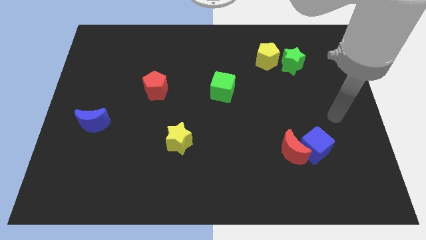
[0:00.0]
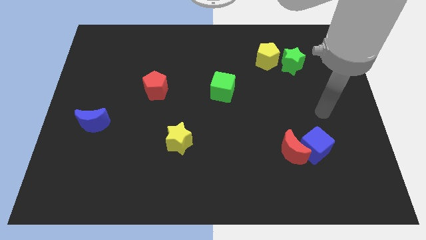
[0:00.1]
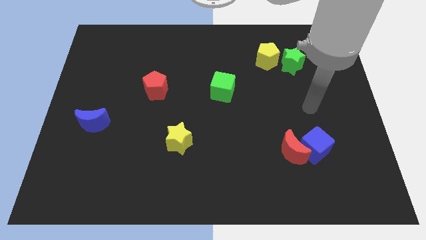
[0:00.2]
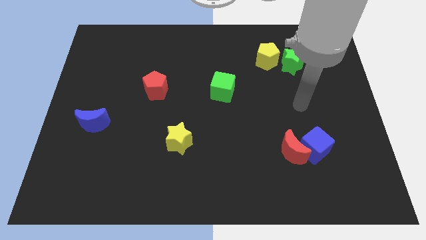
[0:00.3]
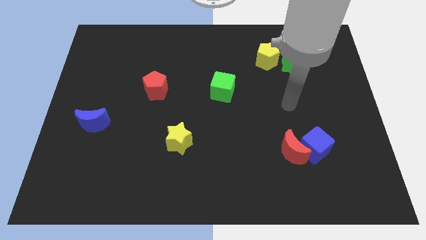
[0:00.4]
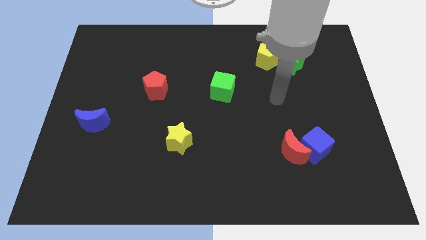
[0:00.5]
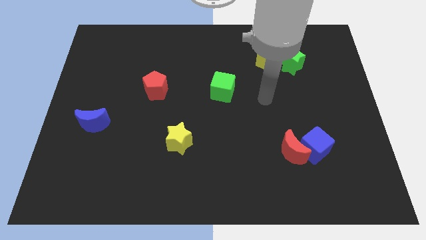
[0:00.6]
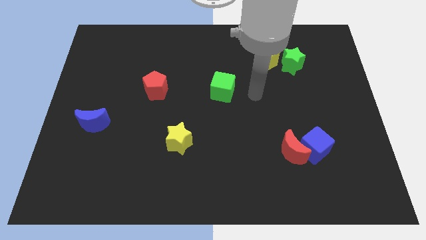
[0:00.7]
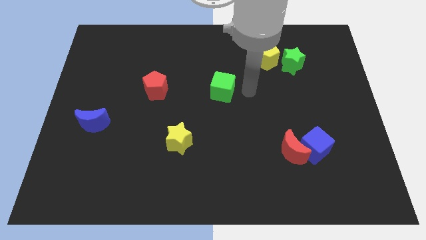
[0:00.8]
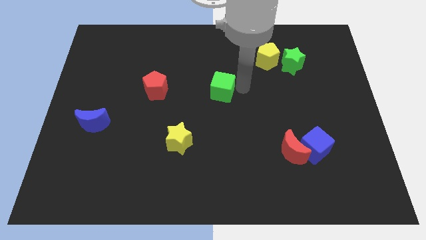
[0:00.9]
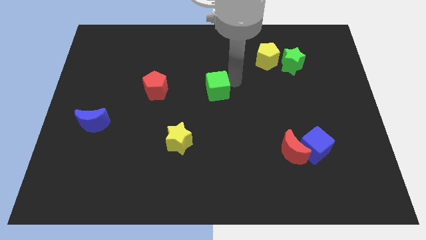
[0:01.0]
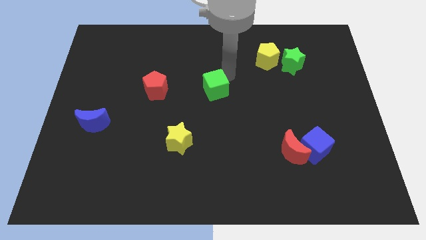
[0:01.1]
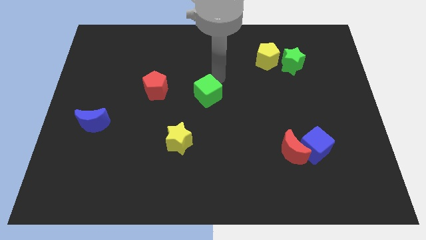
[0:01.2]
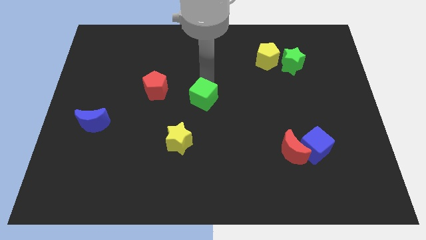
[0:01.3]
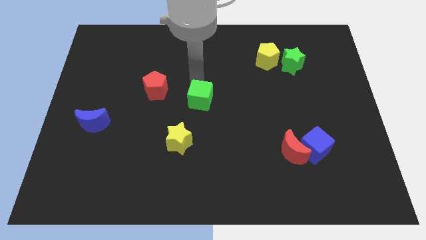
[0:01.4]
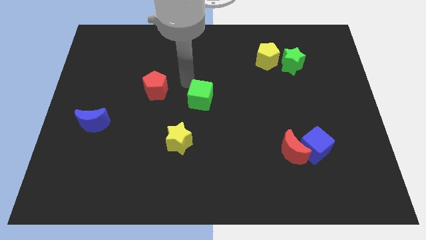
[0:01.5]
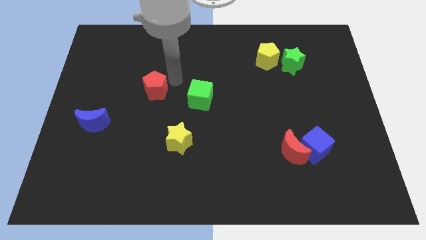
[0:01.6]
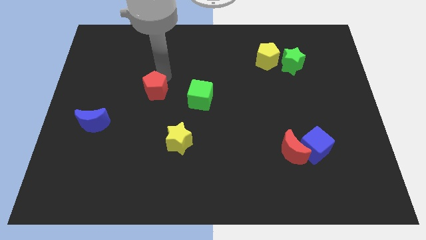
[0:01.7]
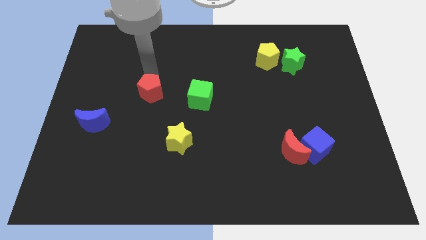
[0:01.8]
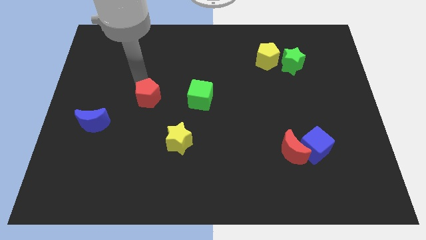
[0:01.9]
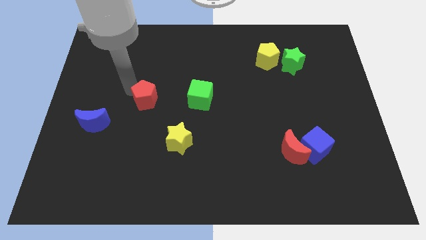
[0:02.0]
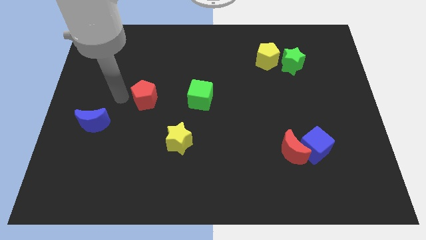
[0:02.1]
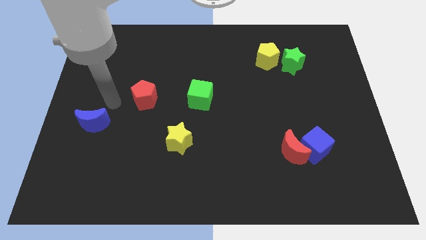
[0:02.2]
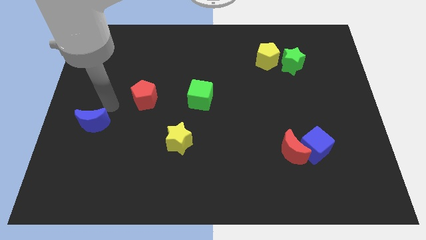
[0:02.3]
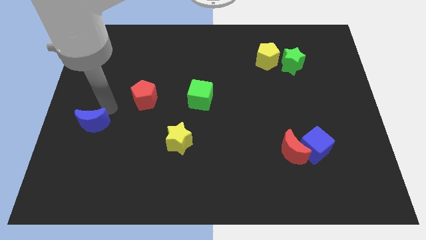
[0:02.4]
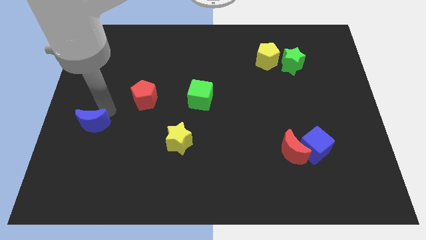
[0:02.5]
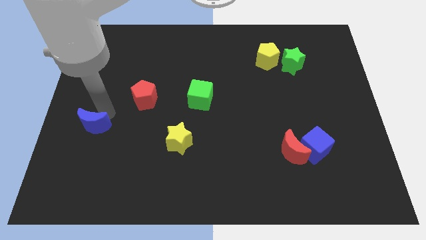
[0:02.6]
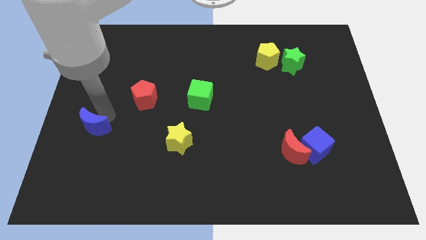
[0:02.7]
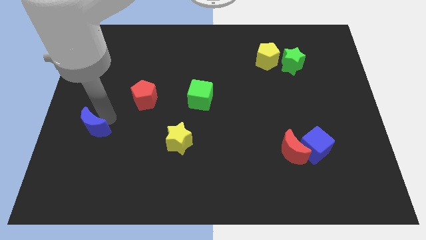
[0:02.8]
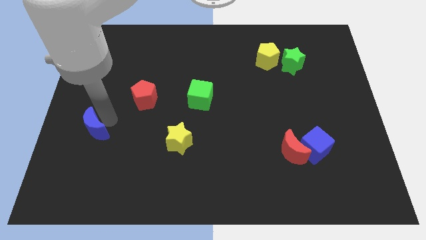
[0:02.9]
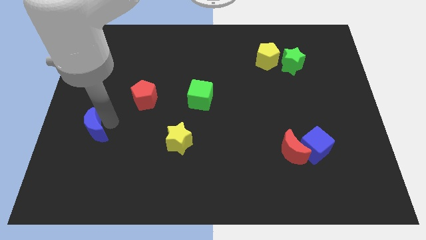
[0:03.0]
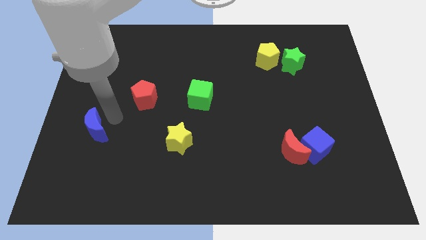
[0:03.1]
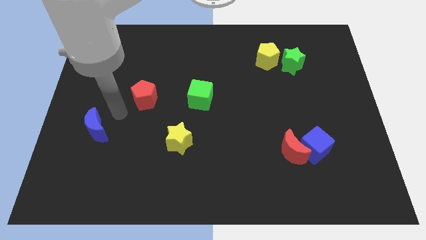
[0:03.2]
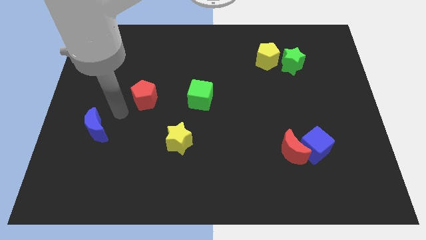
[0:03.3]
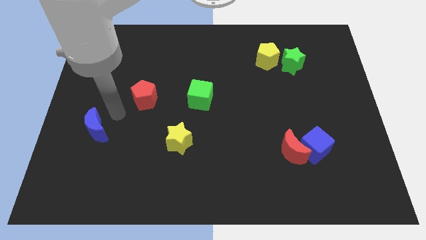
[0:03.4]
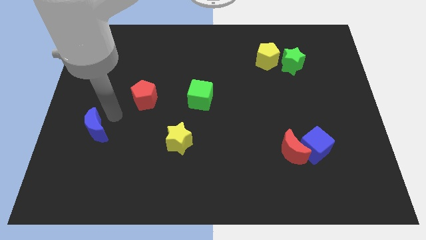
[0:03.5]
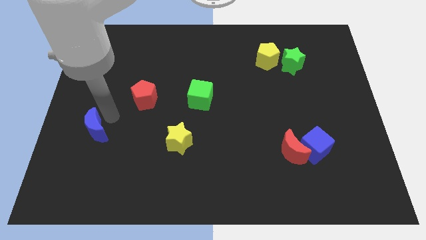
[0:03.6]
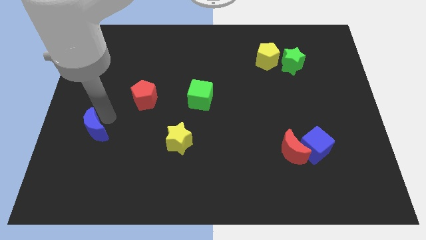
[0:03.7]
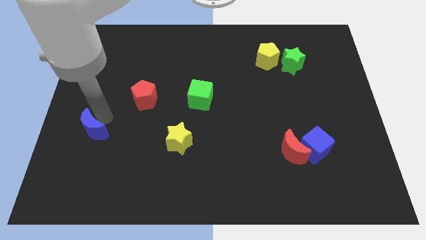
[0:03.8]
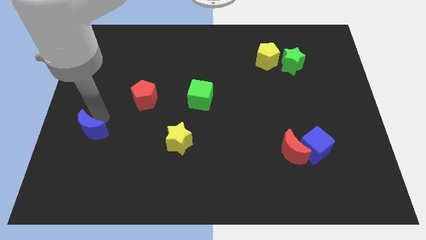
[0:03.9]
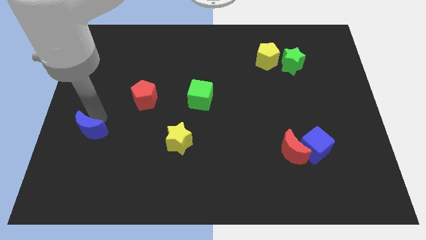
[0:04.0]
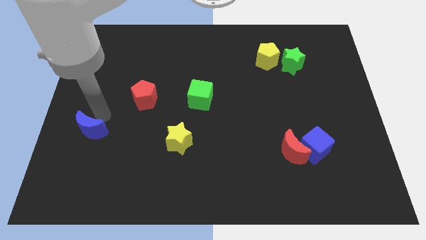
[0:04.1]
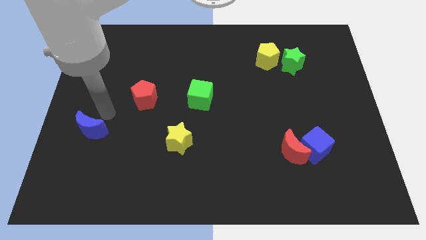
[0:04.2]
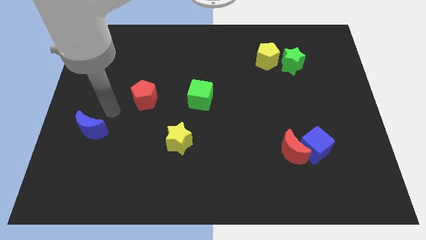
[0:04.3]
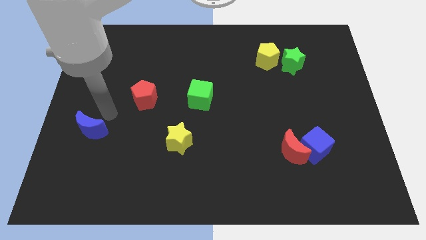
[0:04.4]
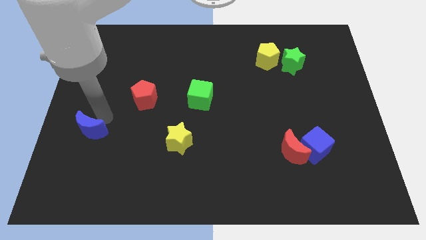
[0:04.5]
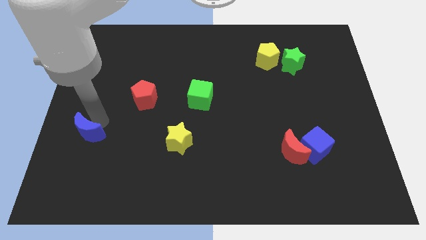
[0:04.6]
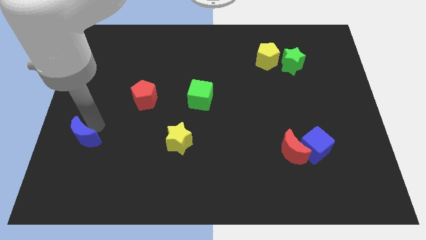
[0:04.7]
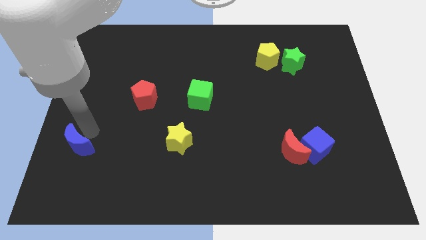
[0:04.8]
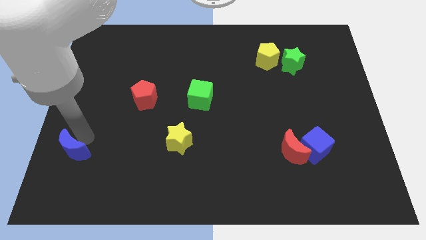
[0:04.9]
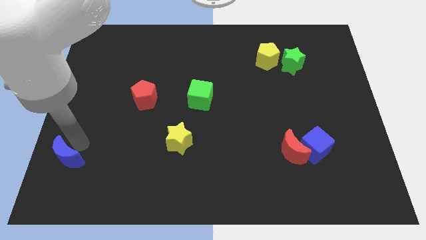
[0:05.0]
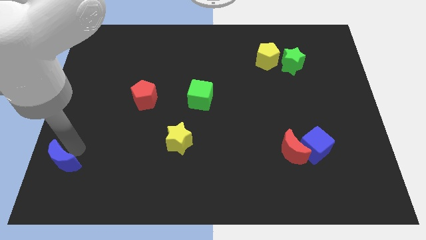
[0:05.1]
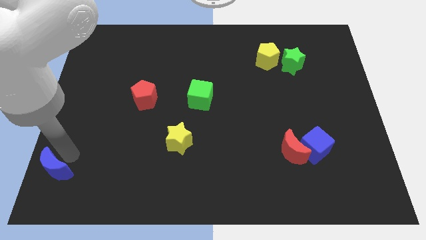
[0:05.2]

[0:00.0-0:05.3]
move the blue moon to the lower left corner

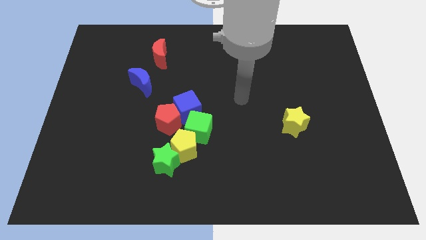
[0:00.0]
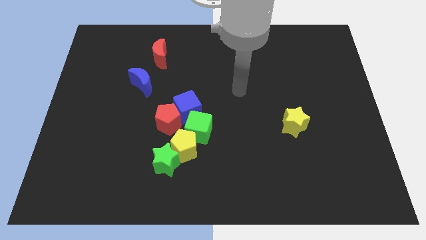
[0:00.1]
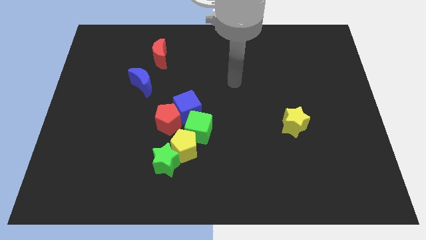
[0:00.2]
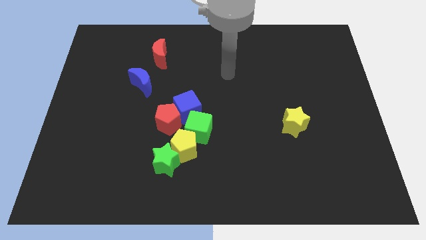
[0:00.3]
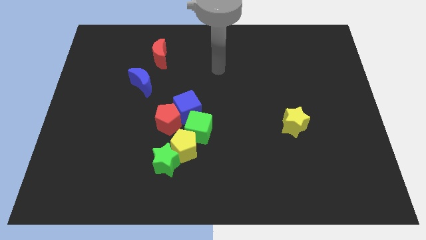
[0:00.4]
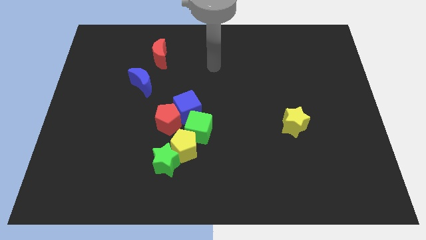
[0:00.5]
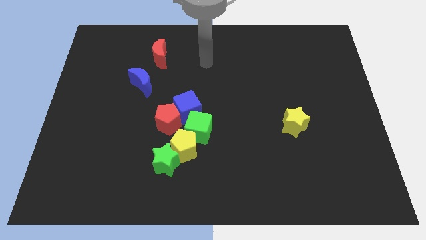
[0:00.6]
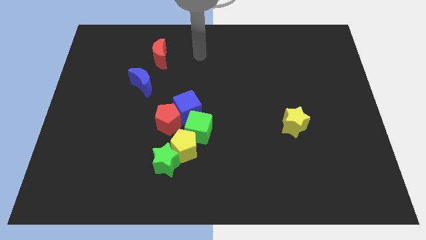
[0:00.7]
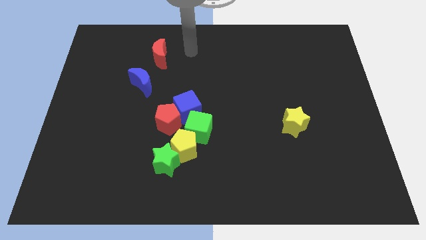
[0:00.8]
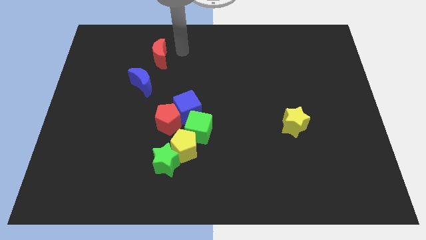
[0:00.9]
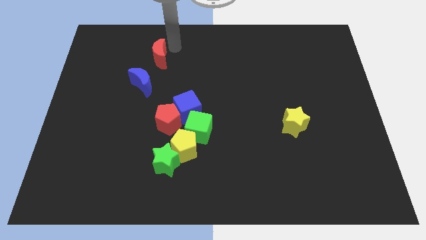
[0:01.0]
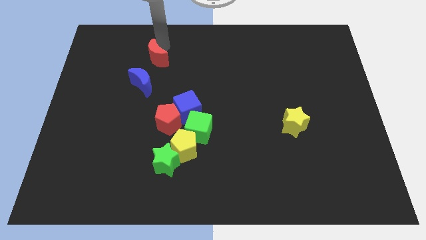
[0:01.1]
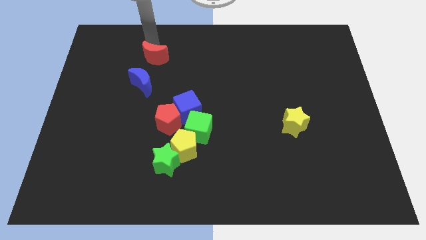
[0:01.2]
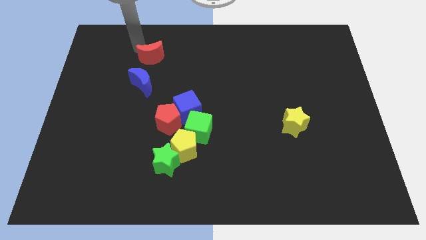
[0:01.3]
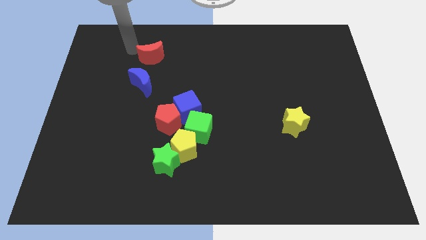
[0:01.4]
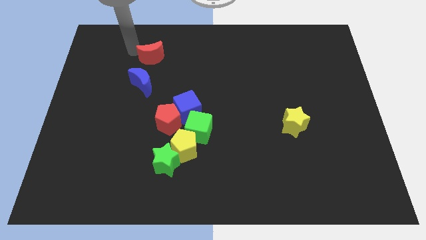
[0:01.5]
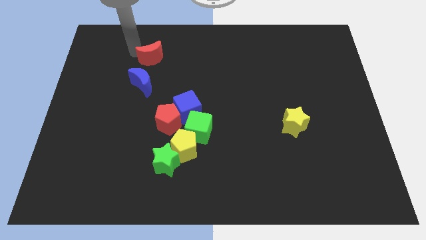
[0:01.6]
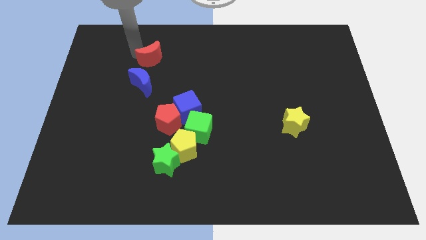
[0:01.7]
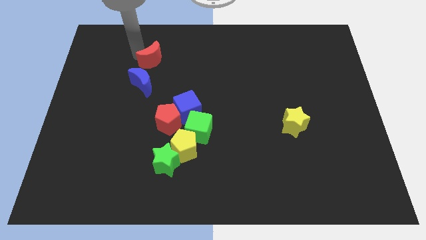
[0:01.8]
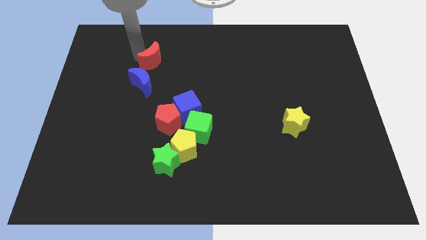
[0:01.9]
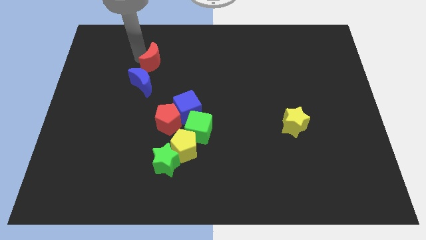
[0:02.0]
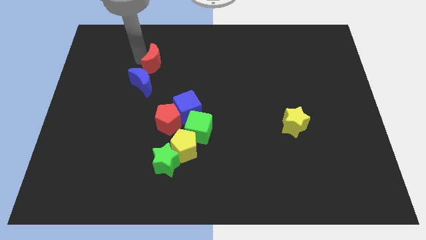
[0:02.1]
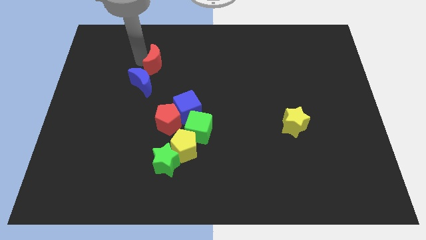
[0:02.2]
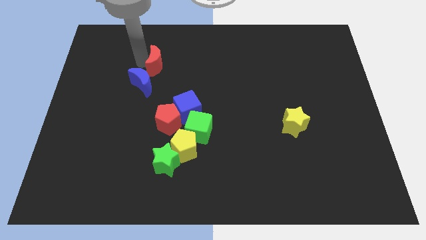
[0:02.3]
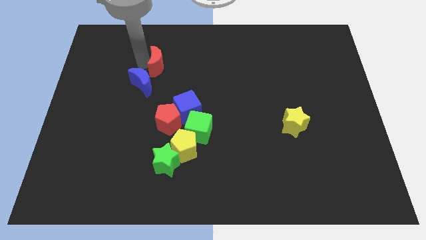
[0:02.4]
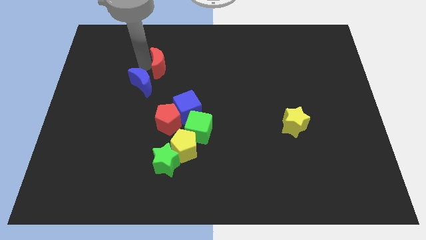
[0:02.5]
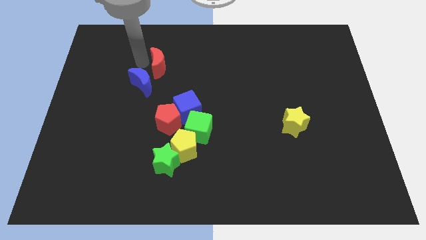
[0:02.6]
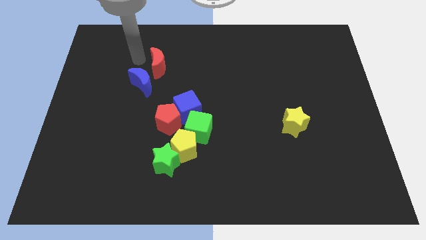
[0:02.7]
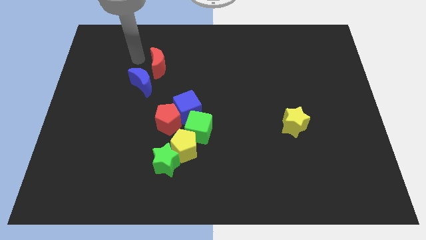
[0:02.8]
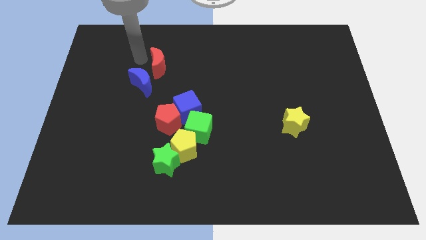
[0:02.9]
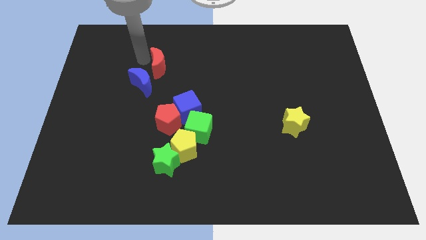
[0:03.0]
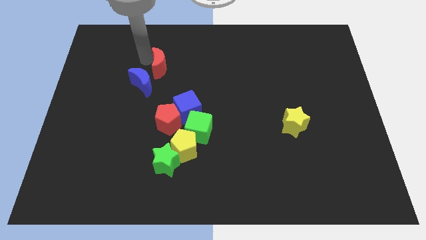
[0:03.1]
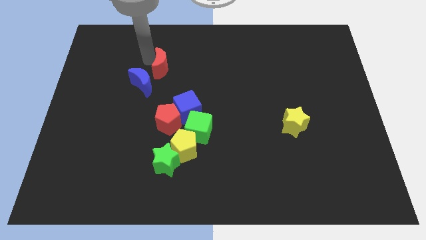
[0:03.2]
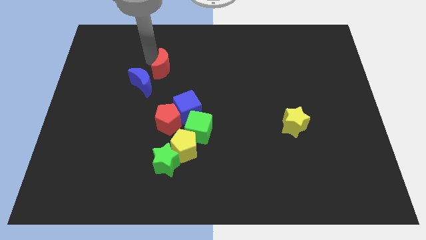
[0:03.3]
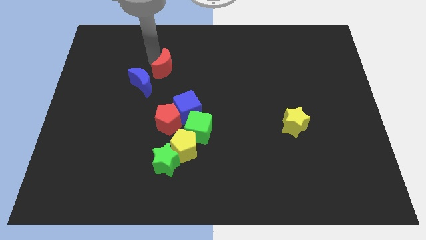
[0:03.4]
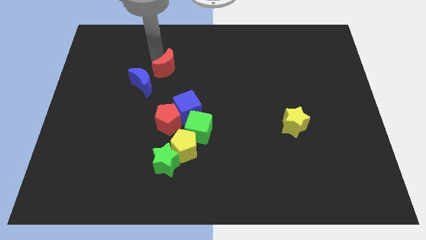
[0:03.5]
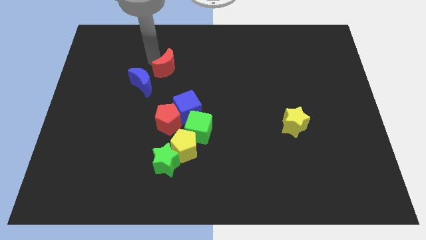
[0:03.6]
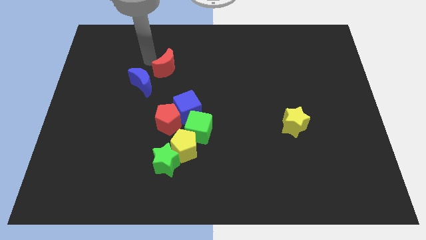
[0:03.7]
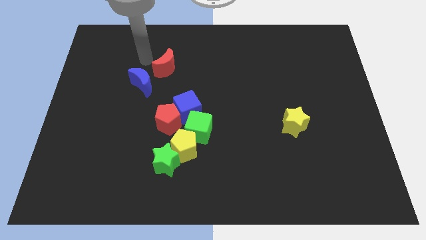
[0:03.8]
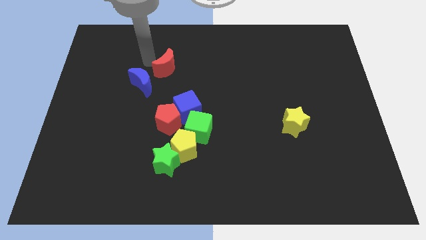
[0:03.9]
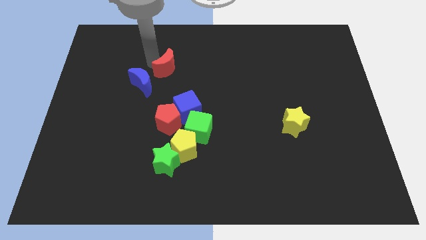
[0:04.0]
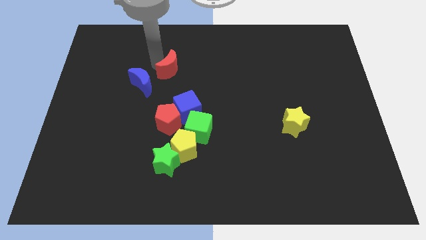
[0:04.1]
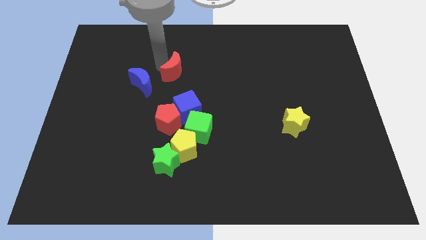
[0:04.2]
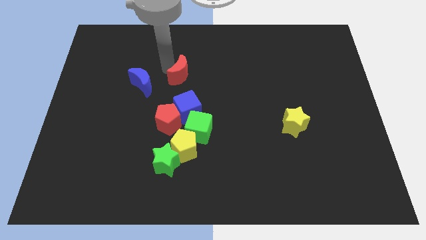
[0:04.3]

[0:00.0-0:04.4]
move the red moon to the center
